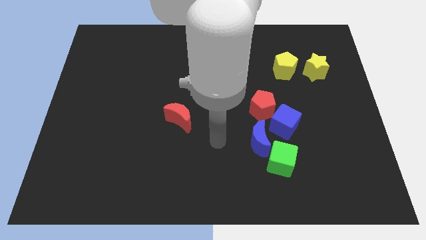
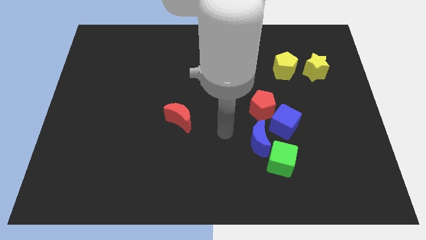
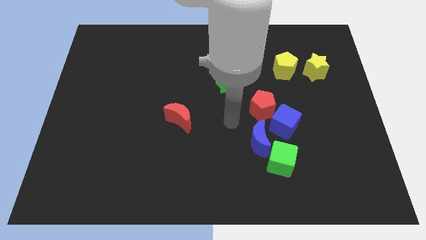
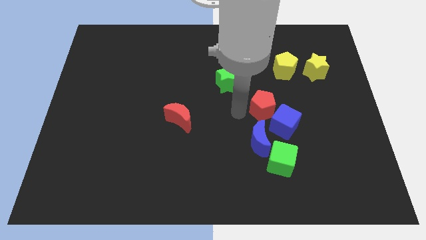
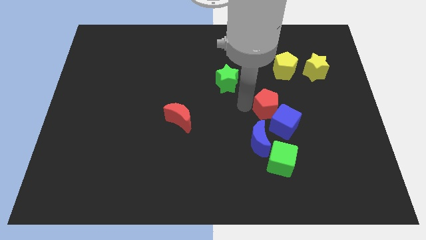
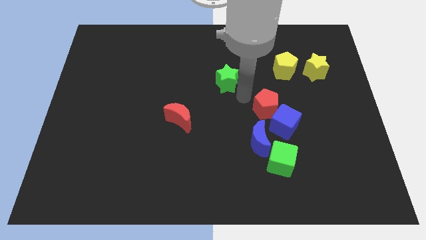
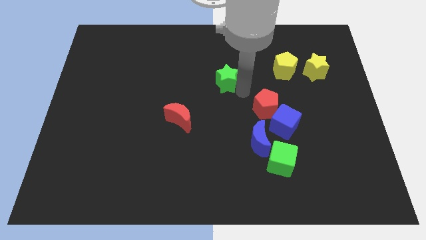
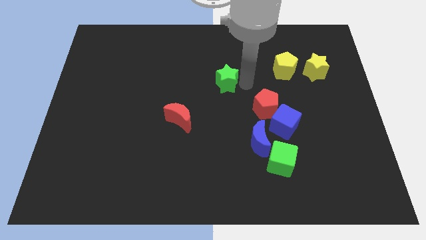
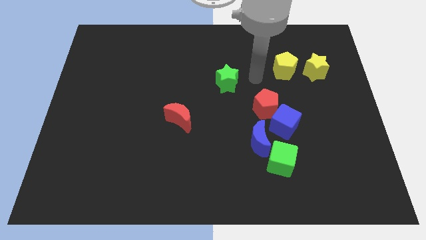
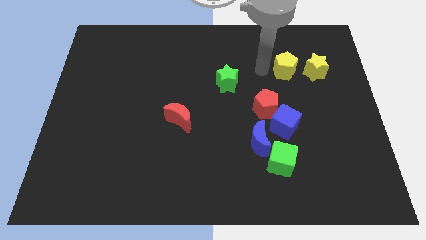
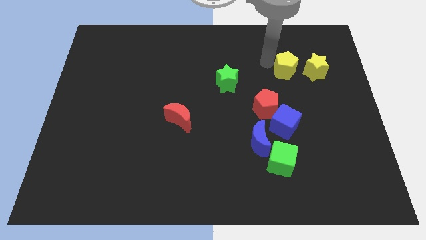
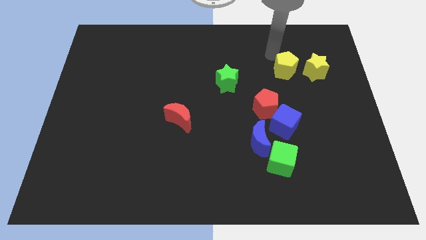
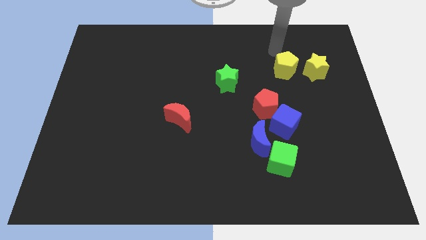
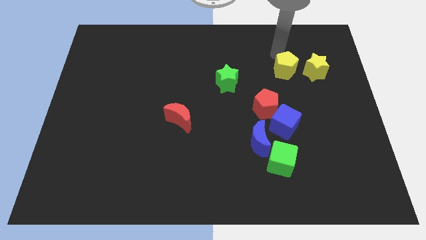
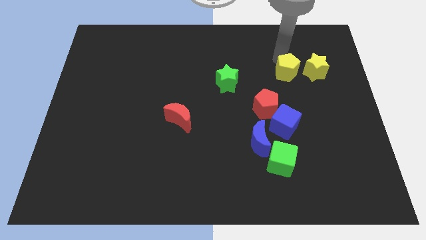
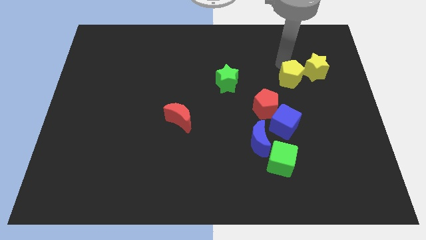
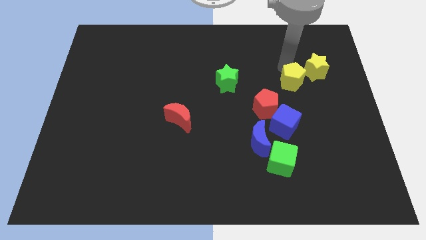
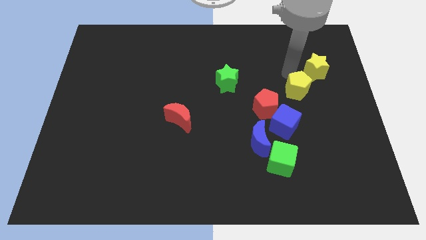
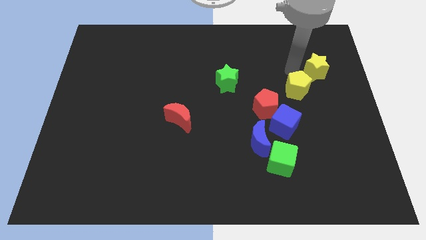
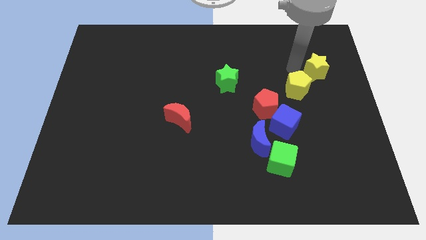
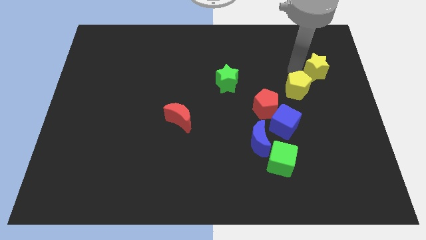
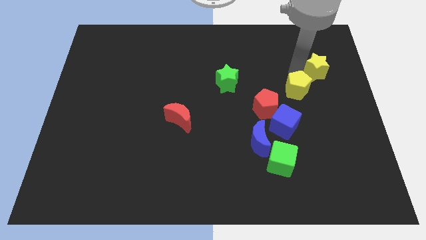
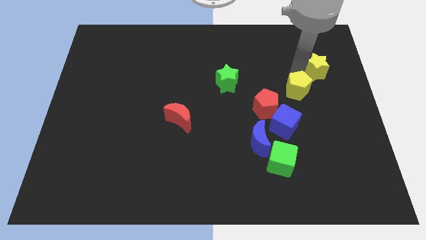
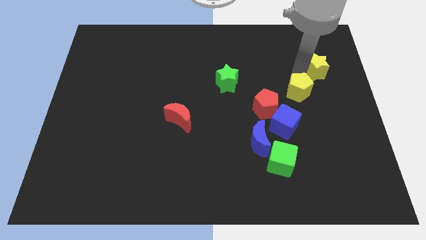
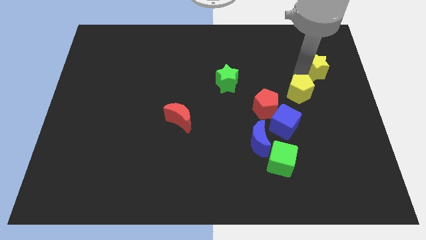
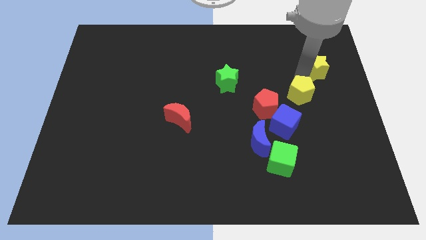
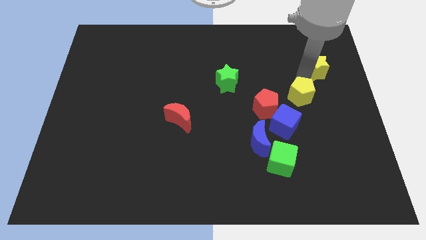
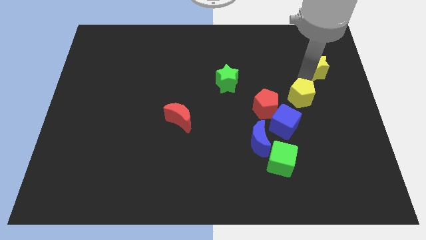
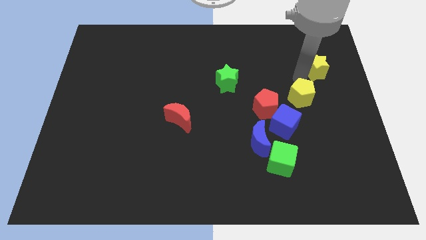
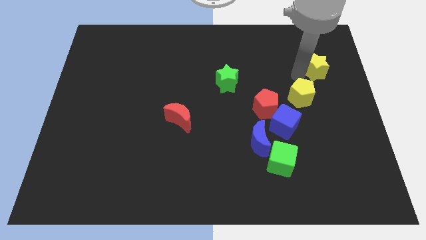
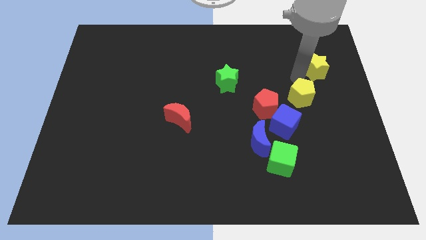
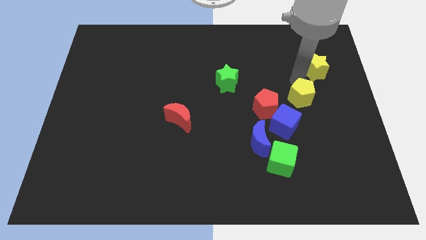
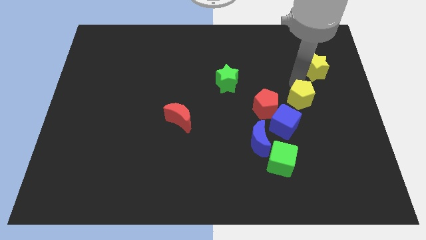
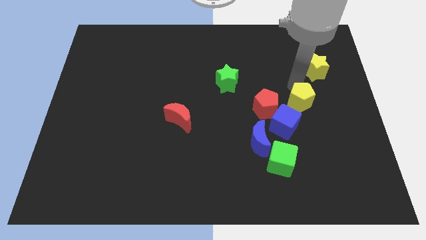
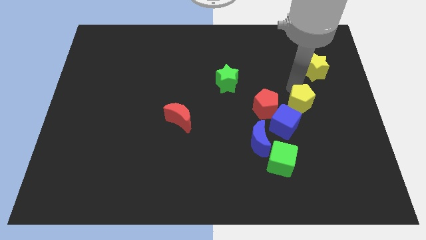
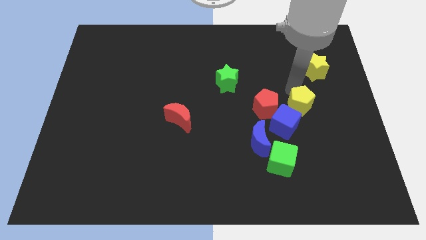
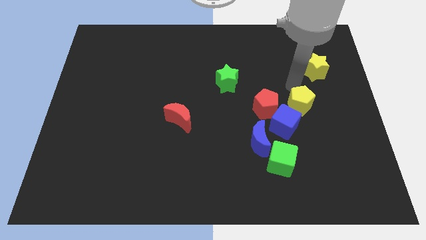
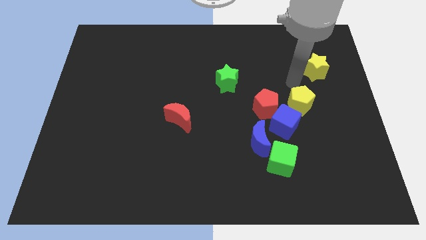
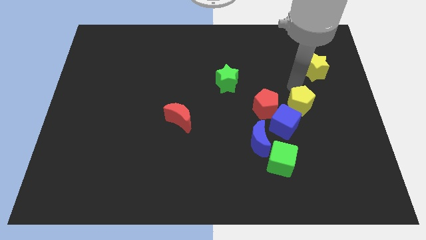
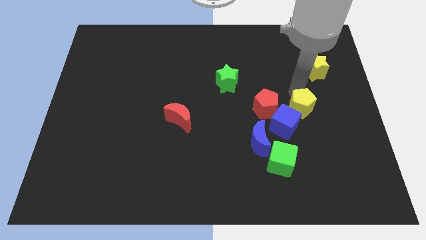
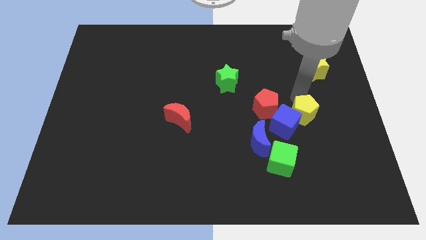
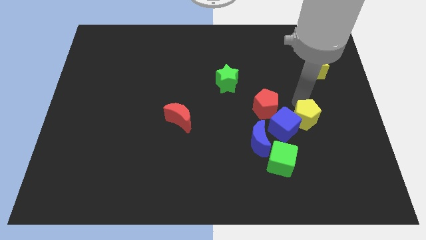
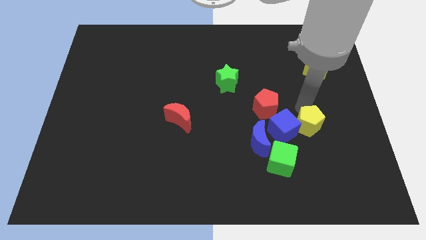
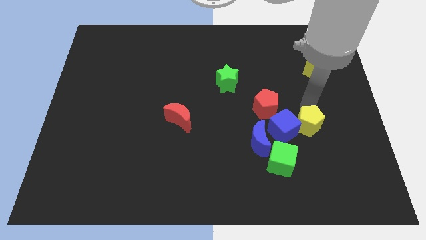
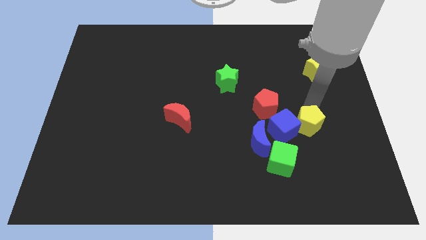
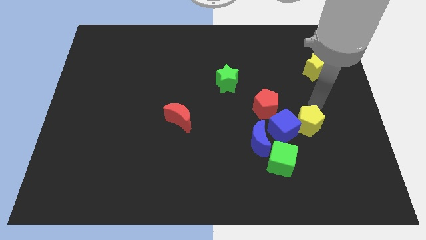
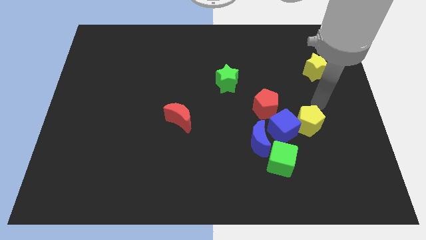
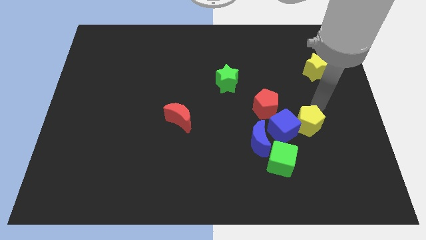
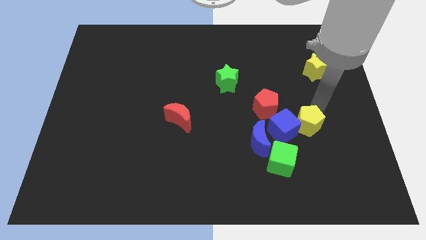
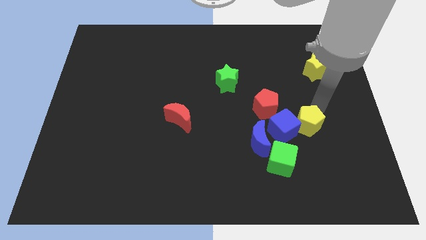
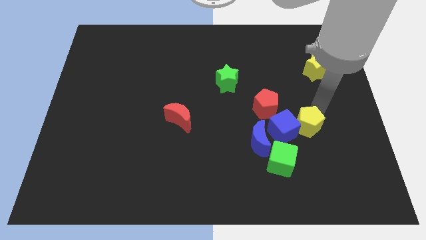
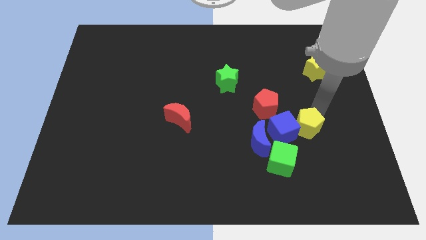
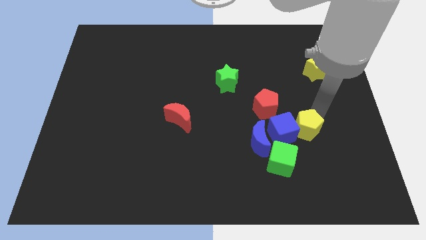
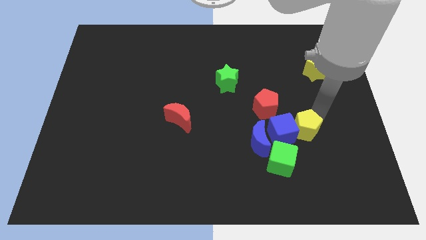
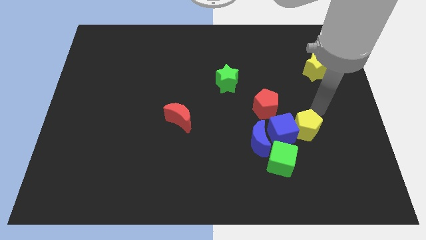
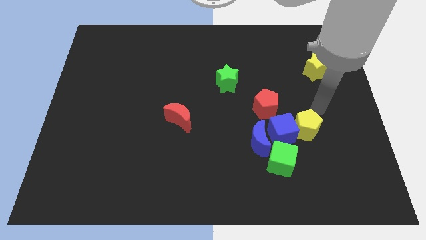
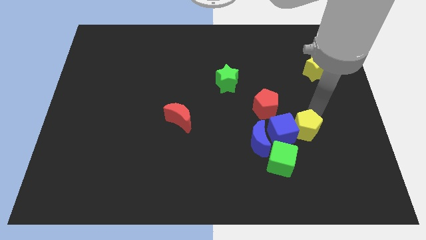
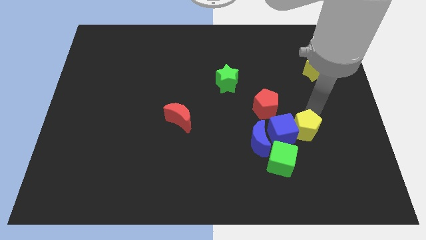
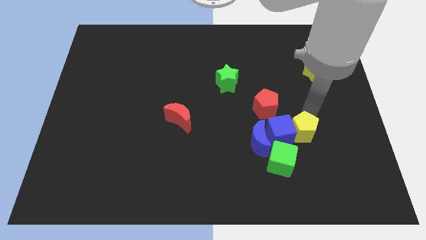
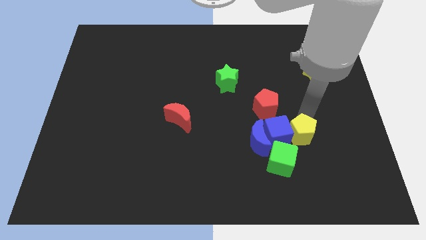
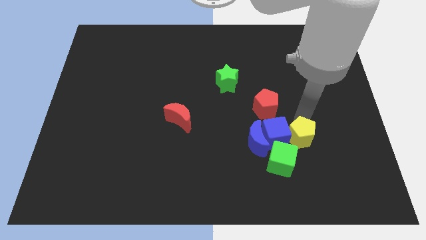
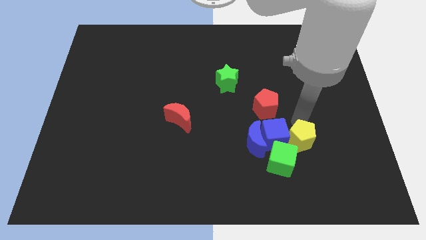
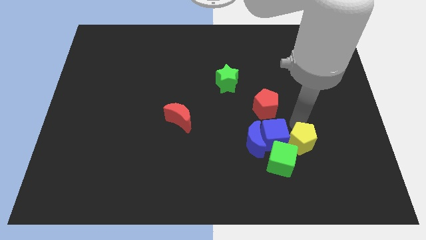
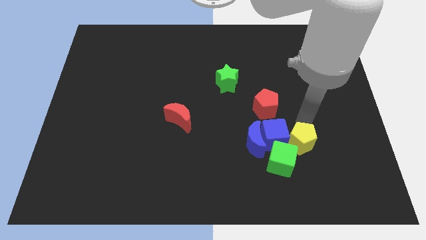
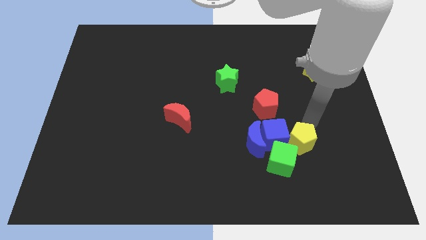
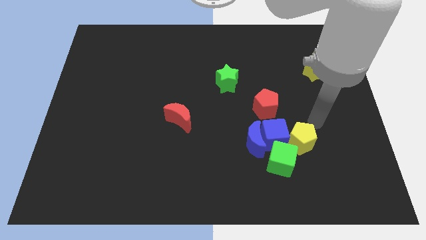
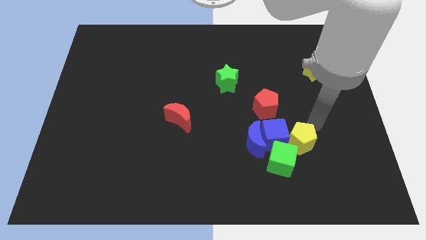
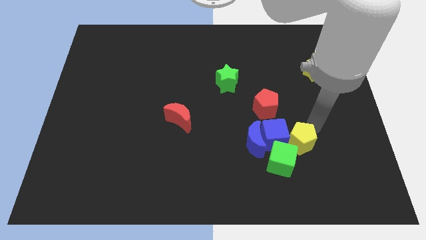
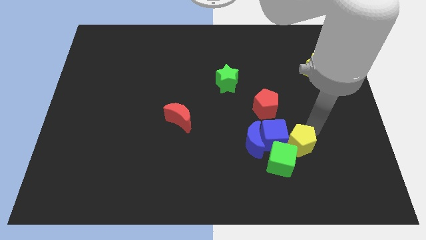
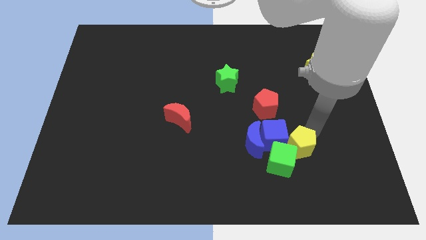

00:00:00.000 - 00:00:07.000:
slide the yellow pentagon next to the green cube

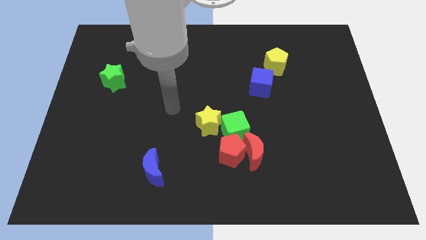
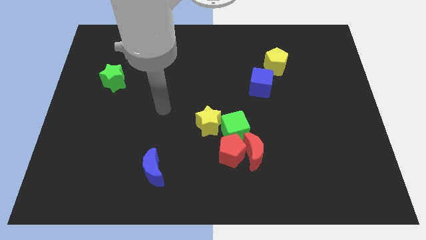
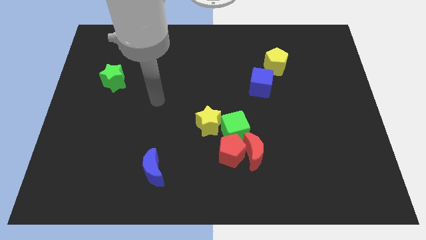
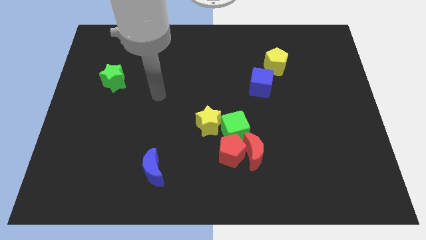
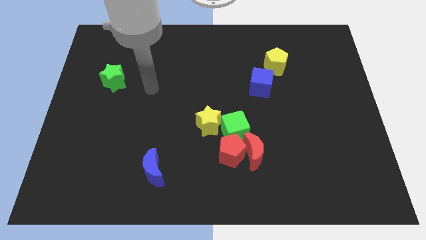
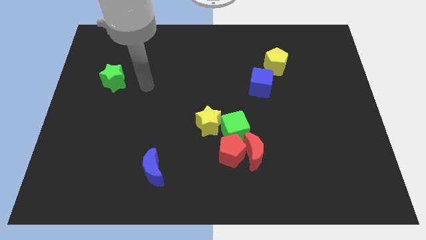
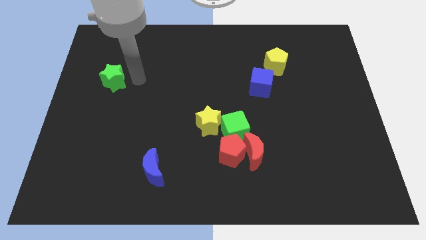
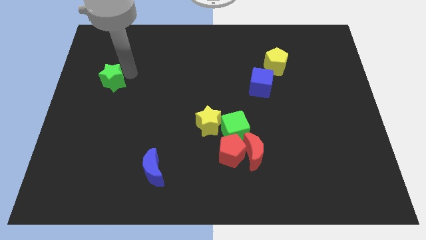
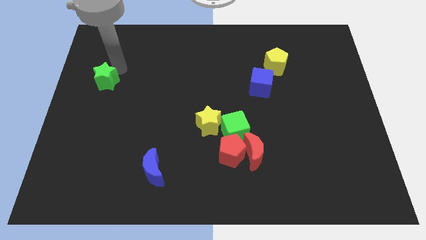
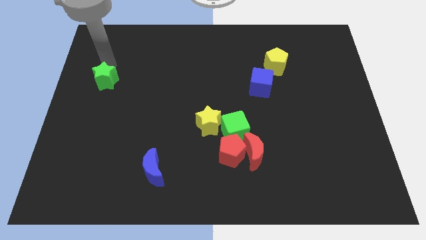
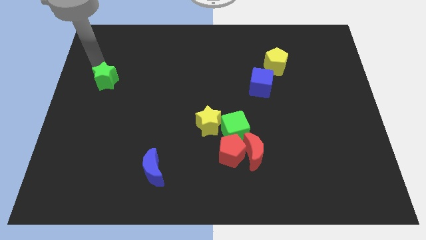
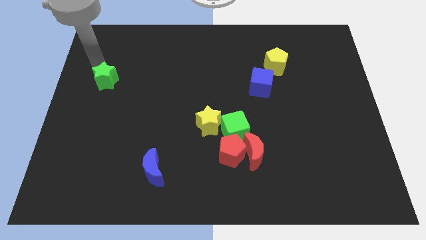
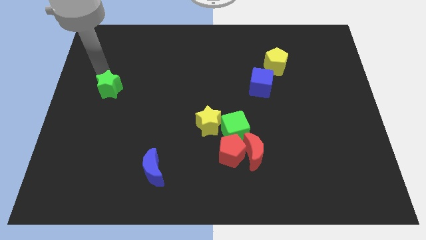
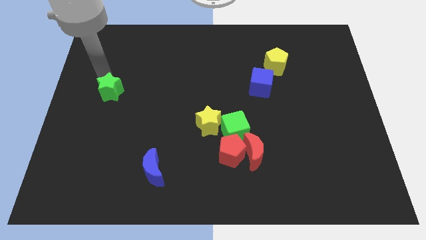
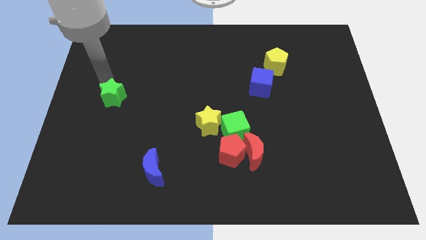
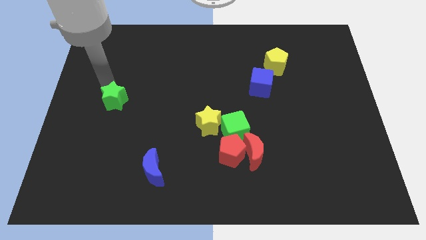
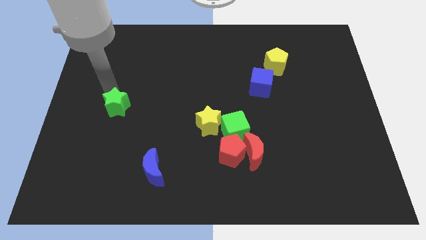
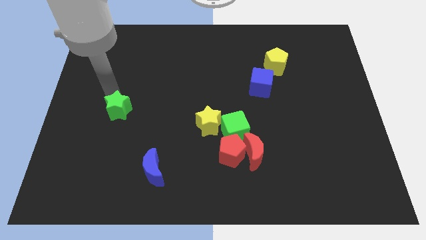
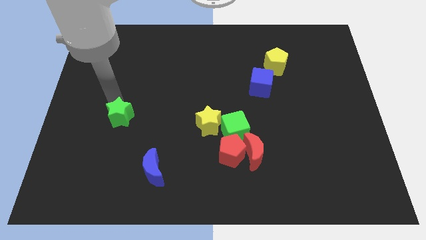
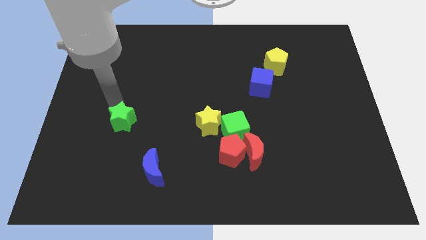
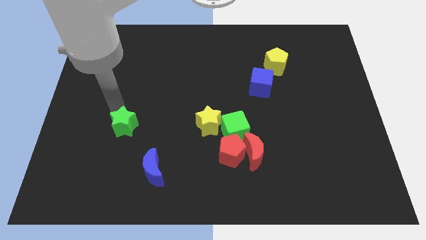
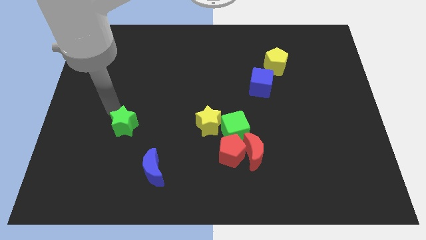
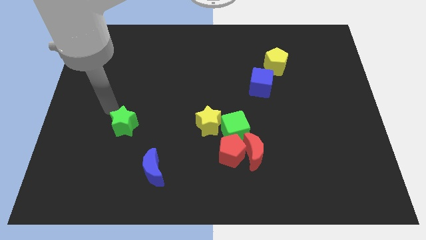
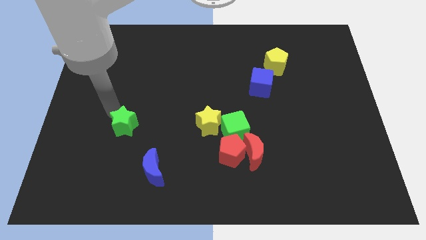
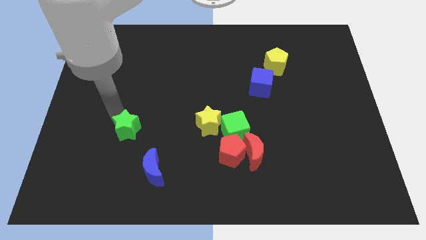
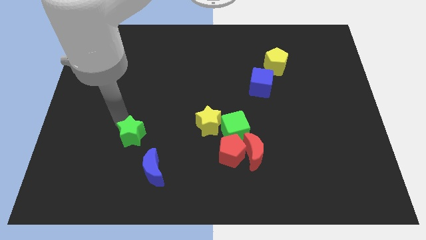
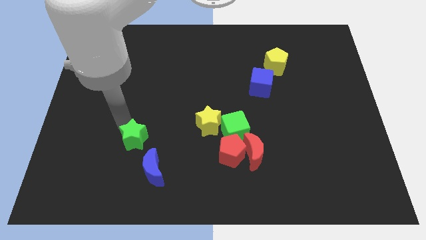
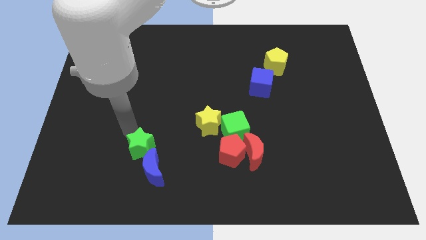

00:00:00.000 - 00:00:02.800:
slide the green star close to the blue moon
